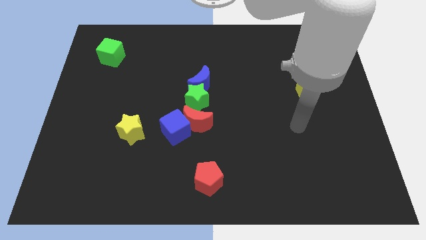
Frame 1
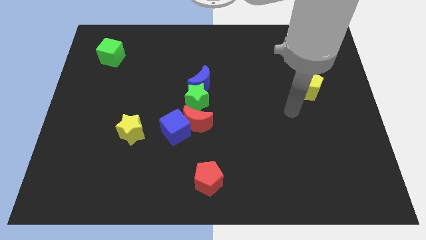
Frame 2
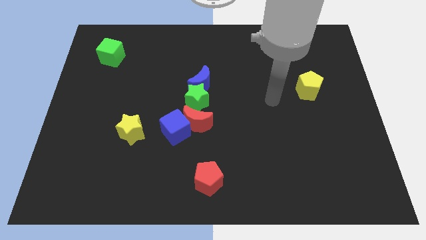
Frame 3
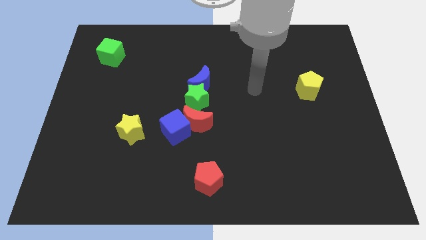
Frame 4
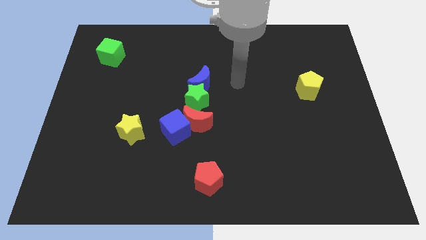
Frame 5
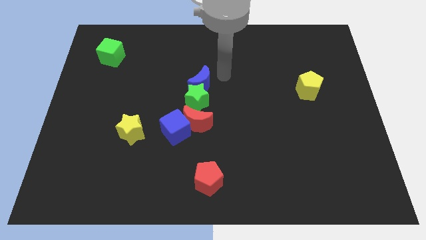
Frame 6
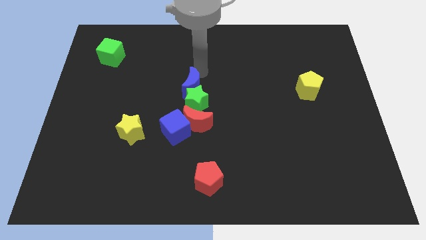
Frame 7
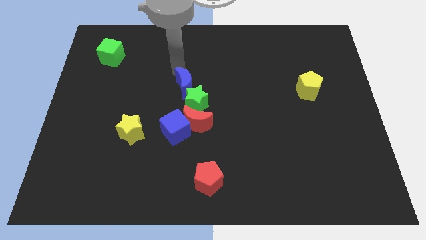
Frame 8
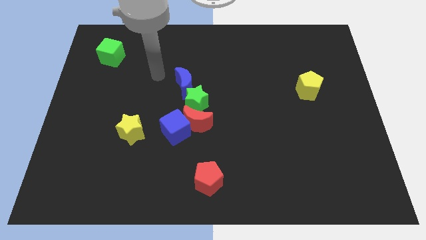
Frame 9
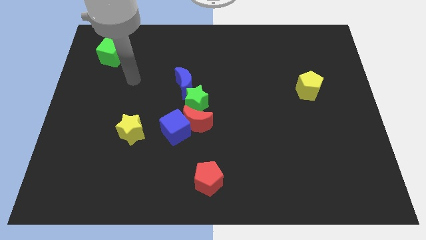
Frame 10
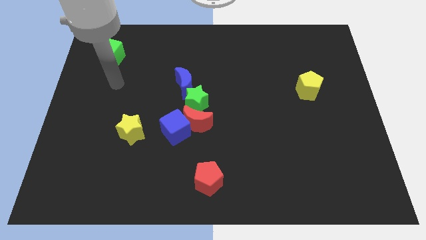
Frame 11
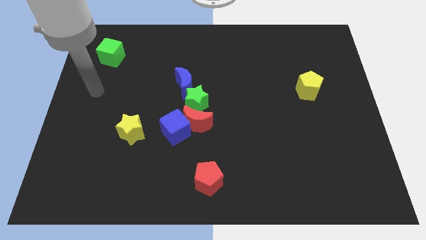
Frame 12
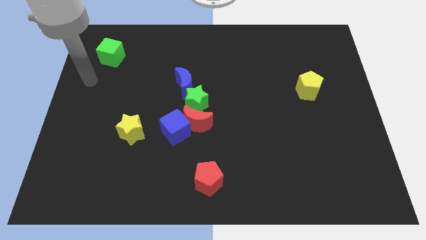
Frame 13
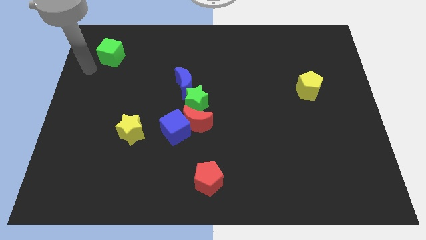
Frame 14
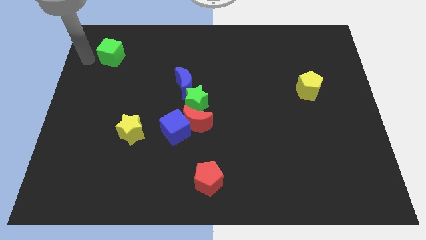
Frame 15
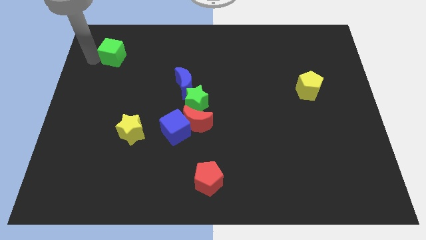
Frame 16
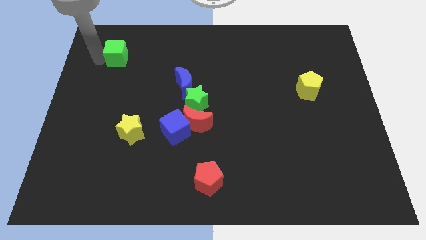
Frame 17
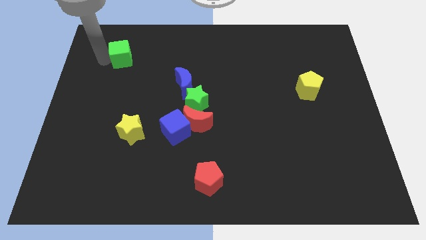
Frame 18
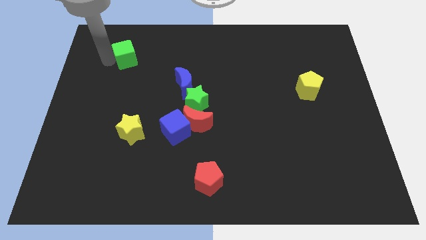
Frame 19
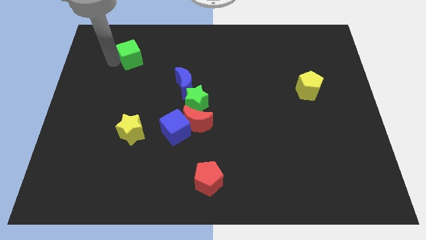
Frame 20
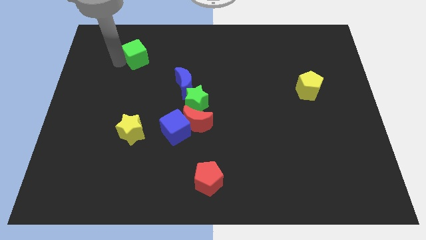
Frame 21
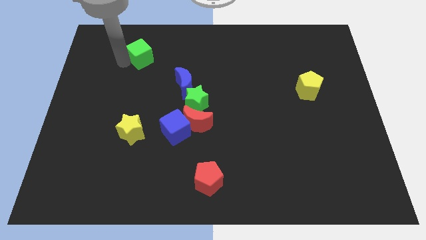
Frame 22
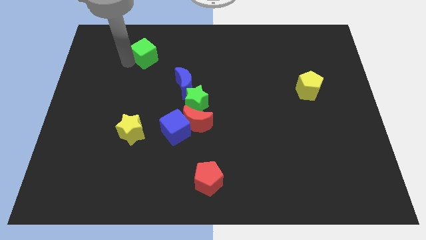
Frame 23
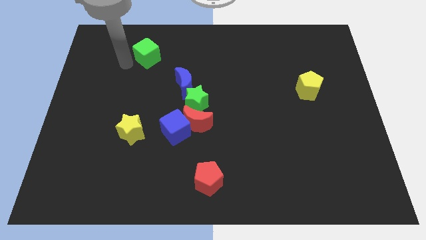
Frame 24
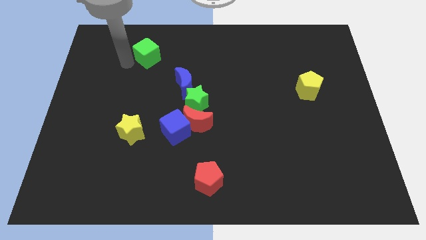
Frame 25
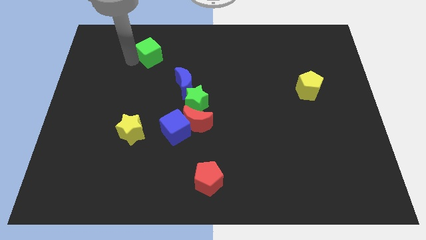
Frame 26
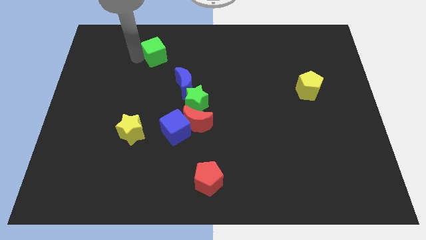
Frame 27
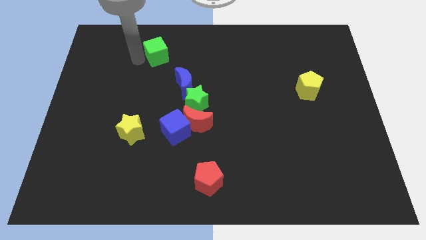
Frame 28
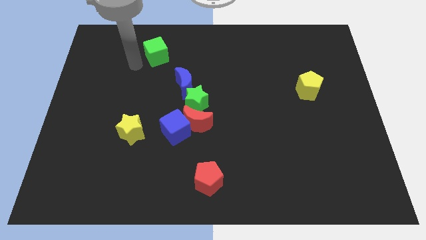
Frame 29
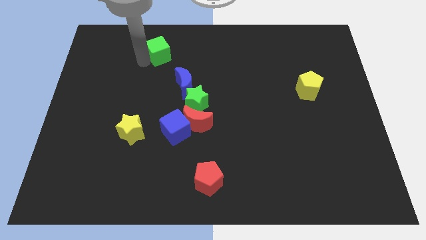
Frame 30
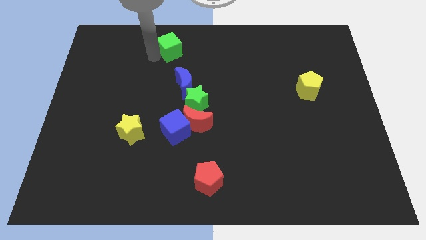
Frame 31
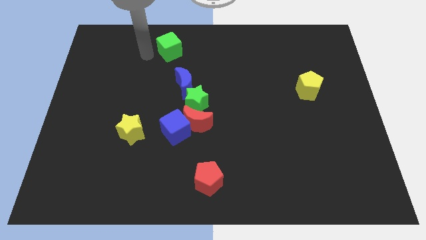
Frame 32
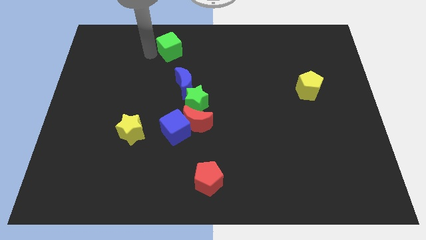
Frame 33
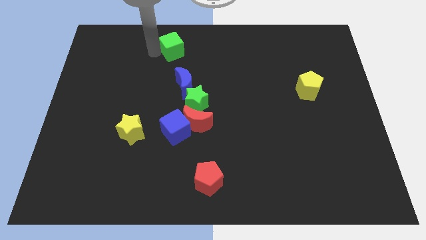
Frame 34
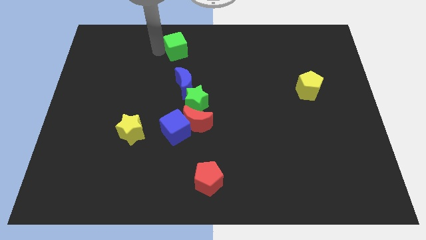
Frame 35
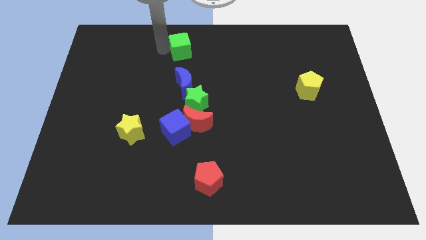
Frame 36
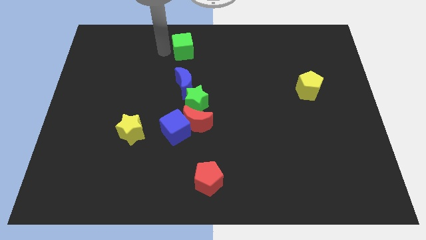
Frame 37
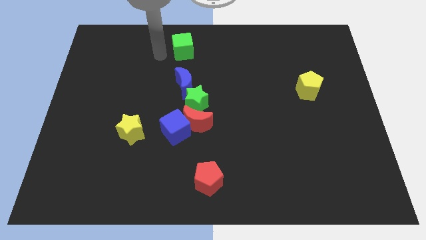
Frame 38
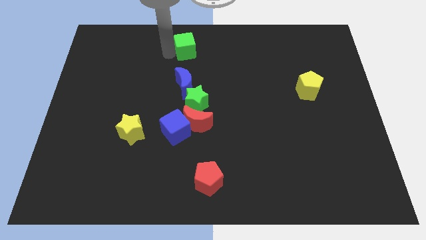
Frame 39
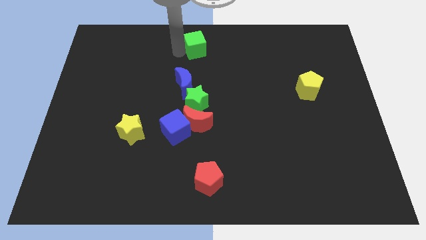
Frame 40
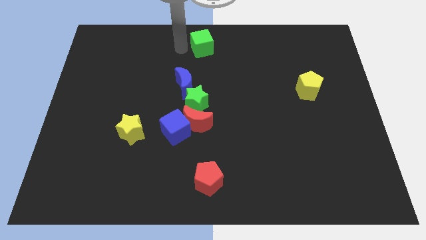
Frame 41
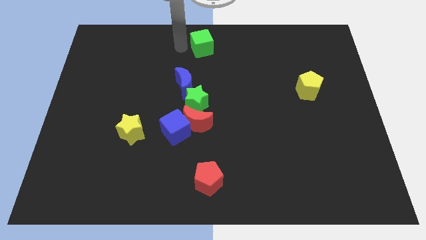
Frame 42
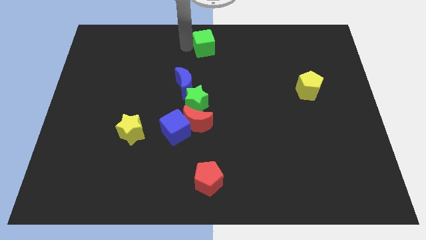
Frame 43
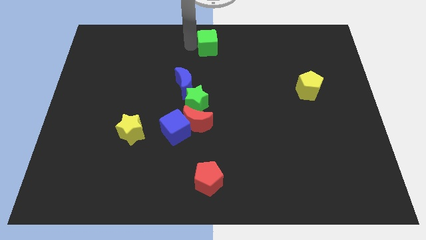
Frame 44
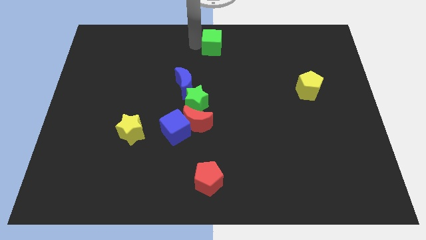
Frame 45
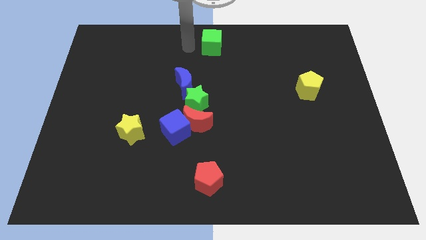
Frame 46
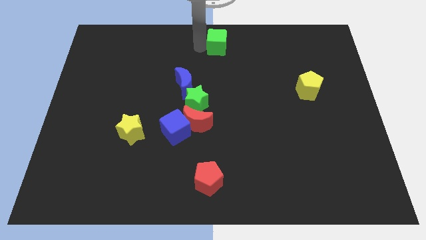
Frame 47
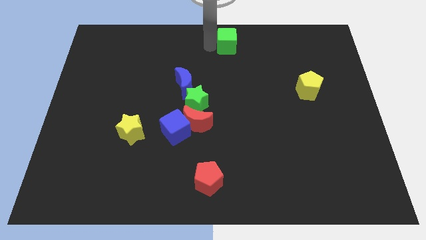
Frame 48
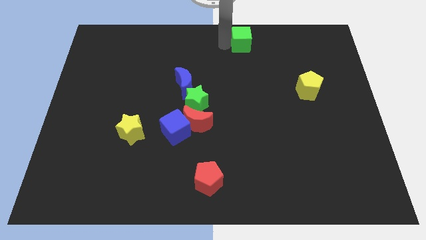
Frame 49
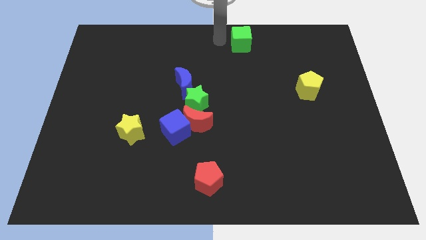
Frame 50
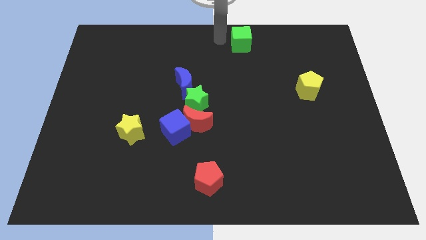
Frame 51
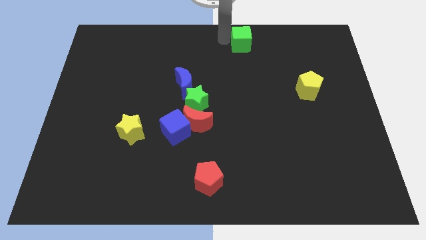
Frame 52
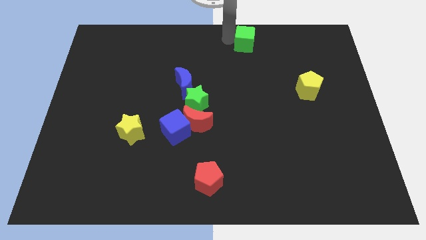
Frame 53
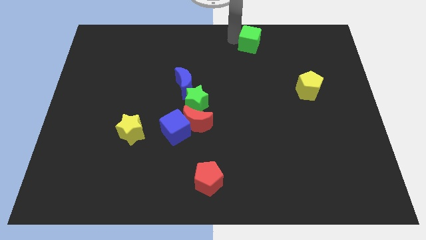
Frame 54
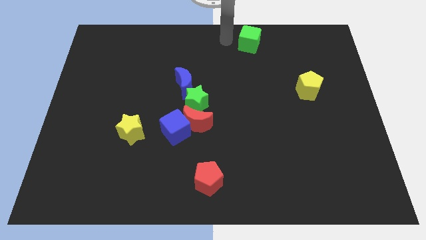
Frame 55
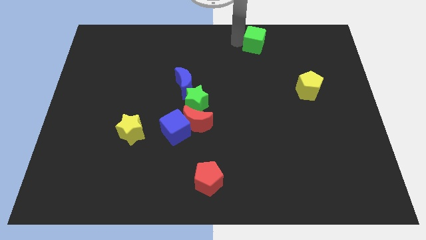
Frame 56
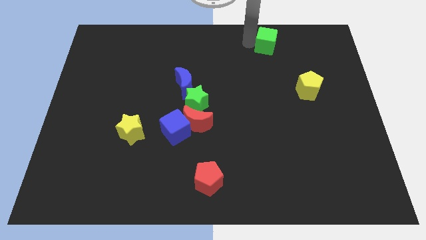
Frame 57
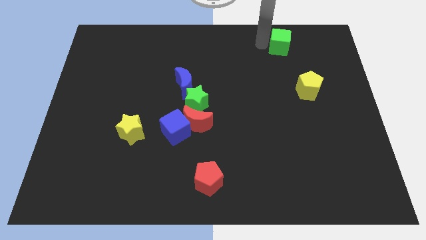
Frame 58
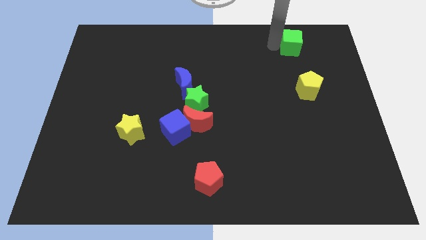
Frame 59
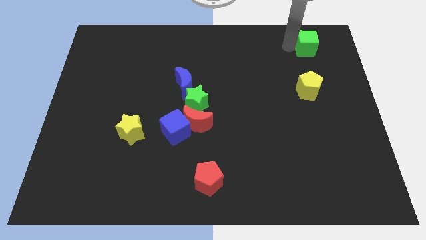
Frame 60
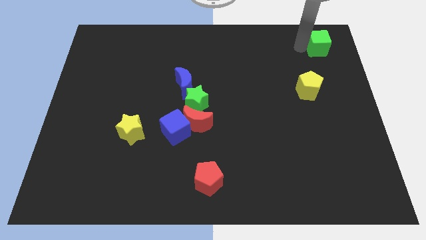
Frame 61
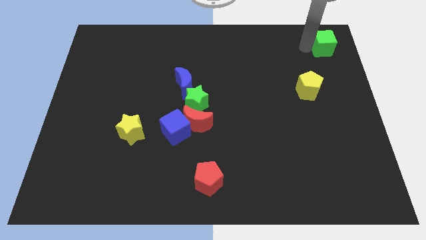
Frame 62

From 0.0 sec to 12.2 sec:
move the green cube to the top right corner
